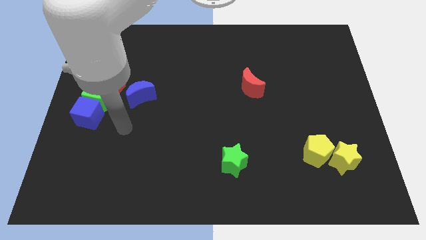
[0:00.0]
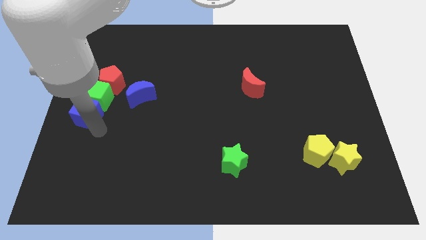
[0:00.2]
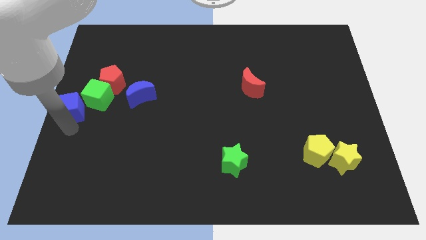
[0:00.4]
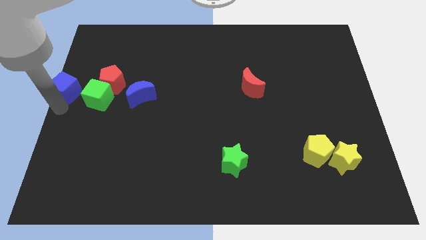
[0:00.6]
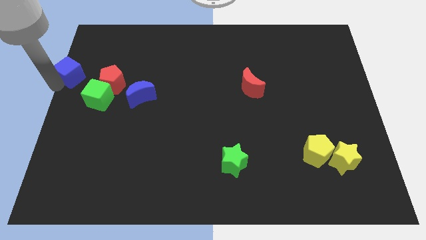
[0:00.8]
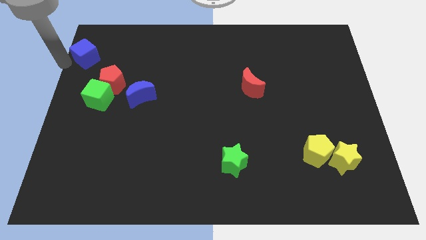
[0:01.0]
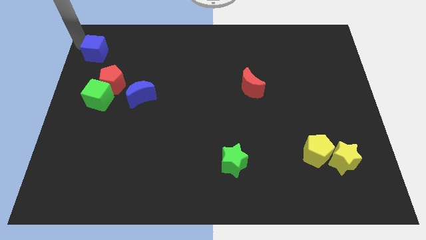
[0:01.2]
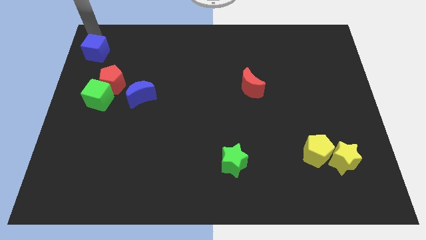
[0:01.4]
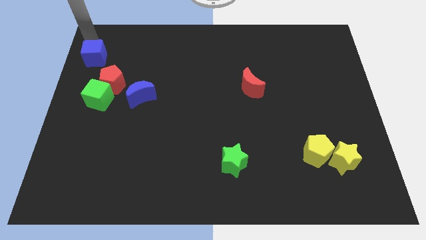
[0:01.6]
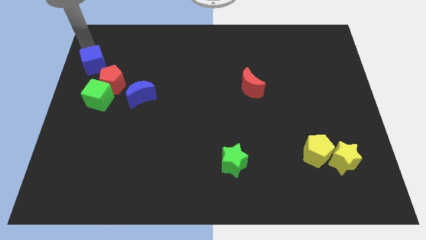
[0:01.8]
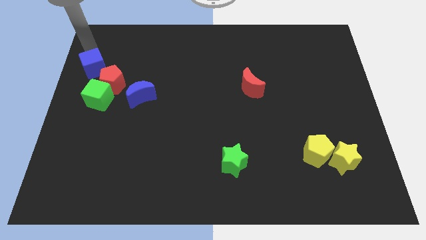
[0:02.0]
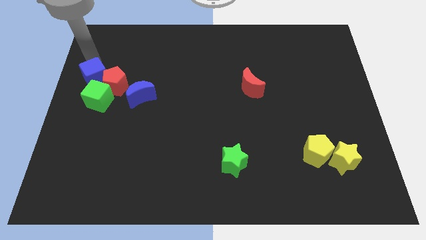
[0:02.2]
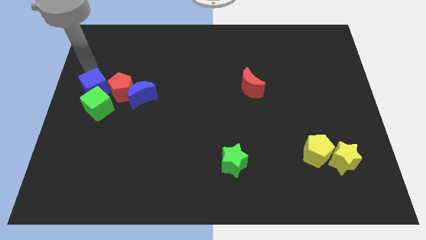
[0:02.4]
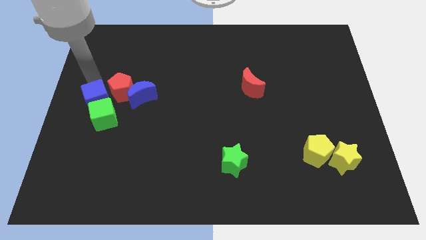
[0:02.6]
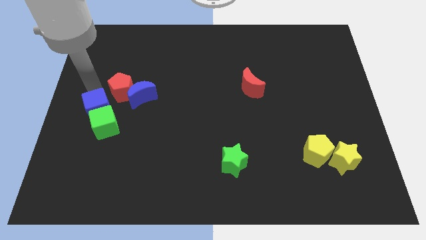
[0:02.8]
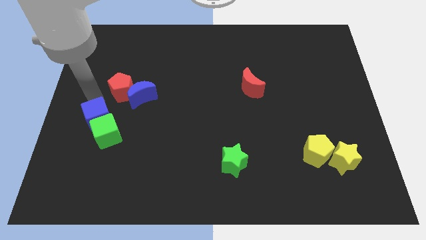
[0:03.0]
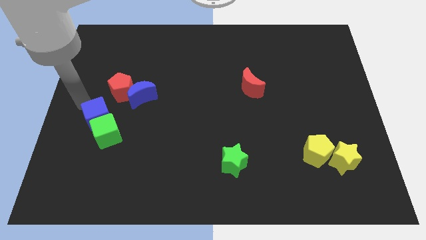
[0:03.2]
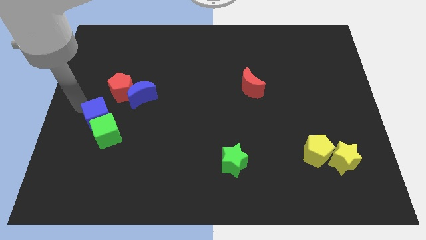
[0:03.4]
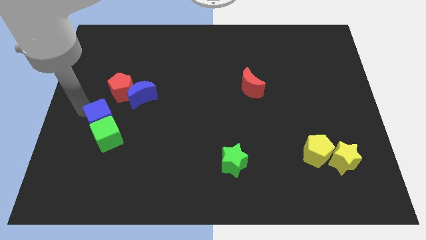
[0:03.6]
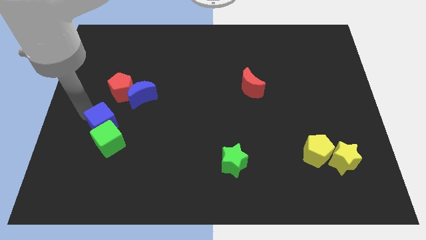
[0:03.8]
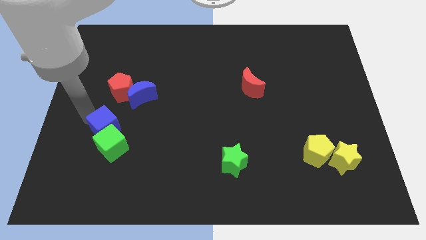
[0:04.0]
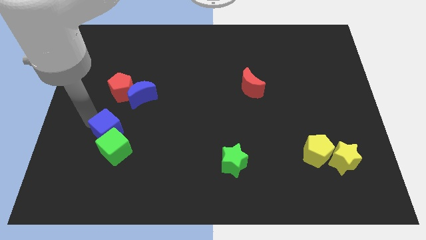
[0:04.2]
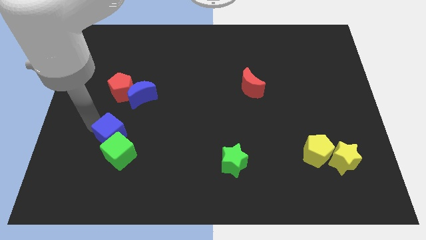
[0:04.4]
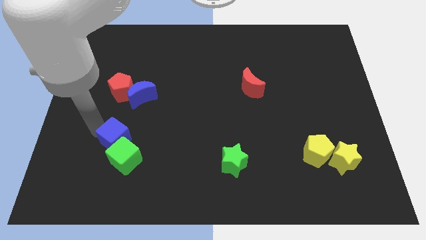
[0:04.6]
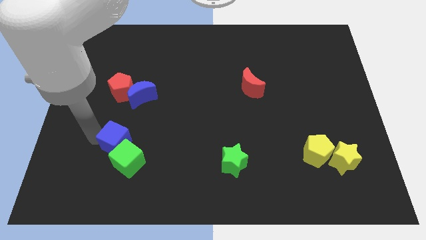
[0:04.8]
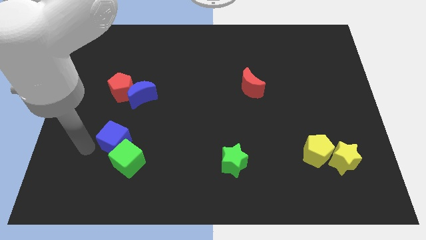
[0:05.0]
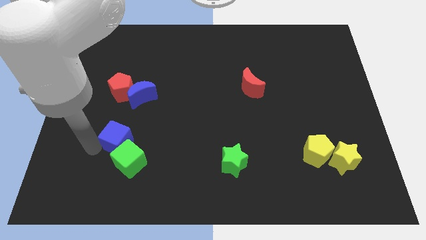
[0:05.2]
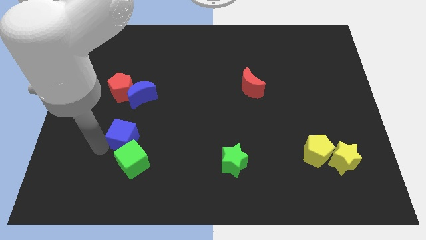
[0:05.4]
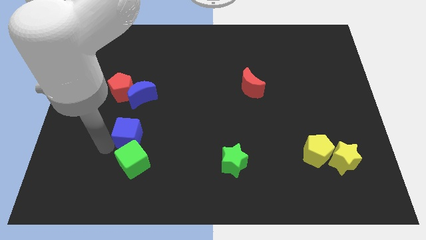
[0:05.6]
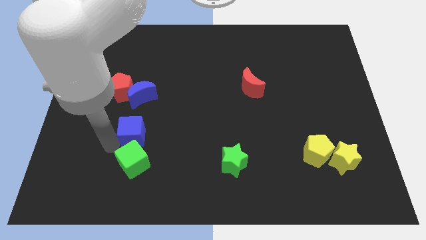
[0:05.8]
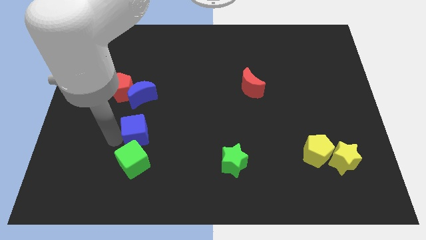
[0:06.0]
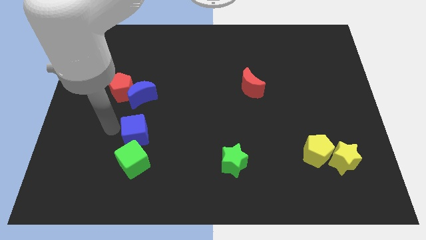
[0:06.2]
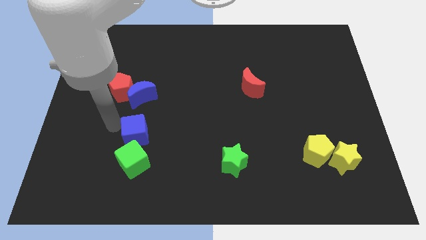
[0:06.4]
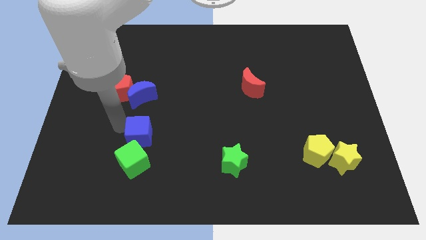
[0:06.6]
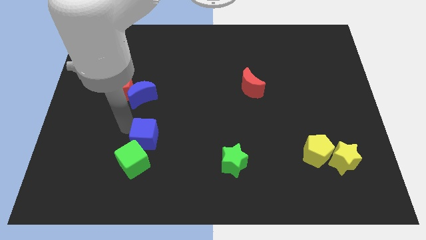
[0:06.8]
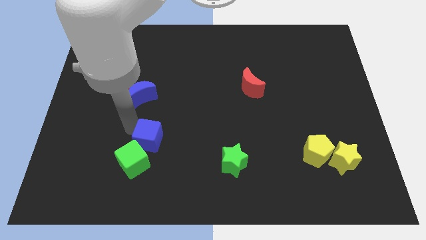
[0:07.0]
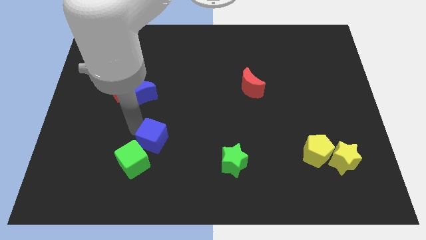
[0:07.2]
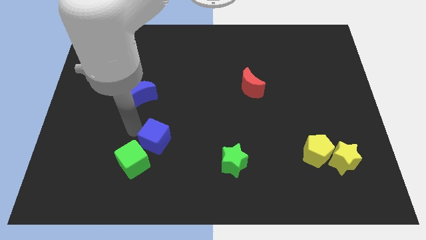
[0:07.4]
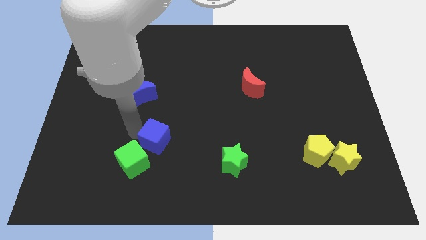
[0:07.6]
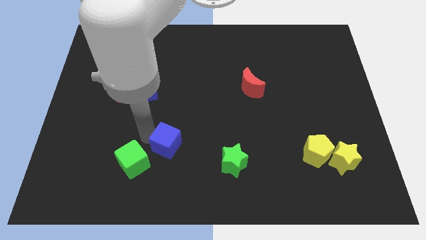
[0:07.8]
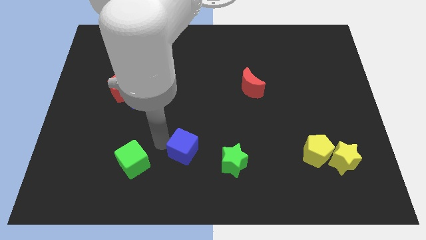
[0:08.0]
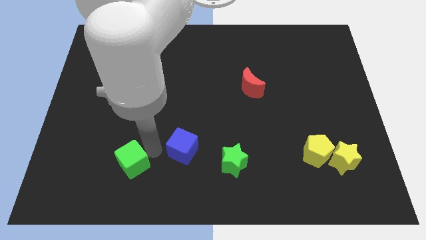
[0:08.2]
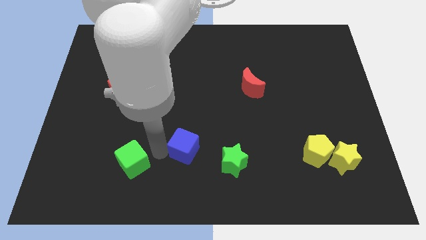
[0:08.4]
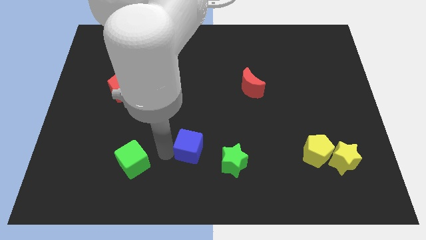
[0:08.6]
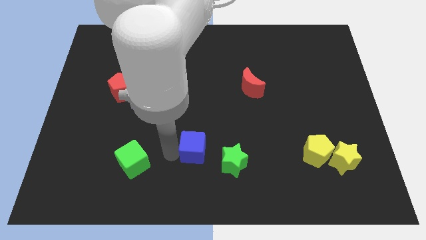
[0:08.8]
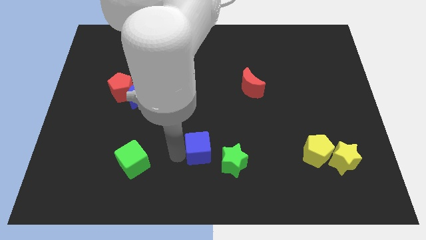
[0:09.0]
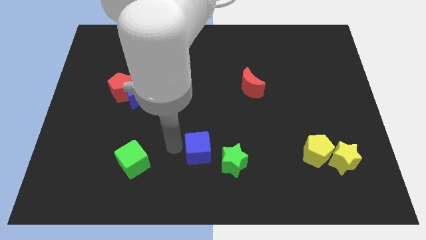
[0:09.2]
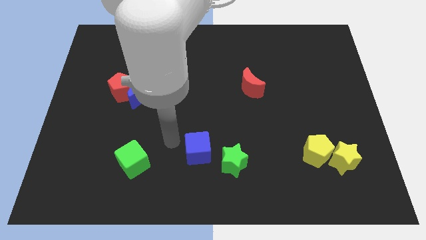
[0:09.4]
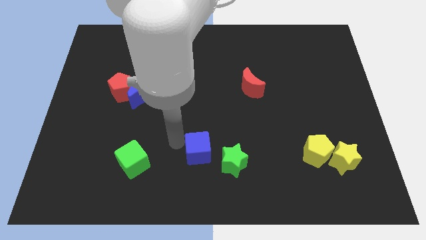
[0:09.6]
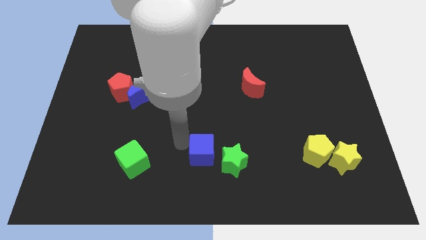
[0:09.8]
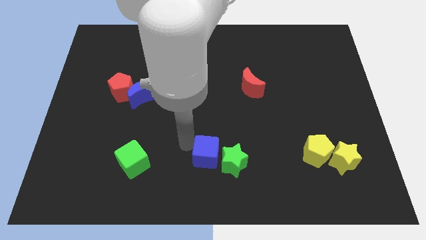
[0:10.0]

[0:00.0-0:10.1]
push the blue cube close to the green star

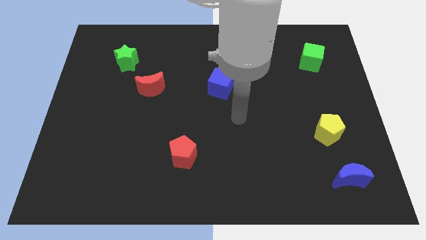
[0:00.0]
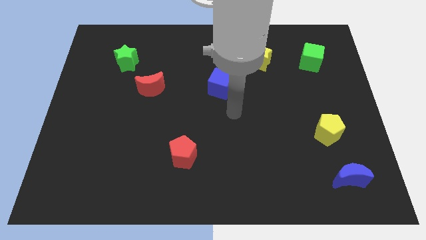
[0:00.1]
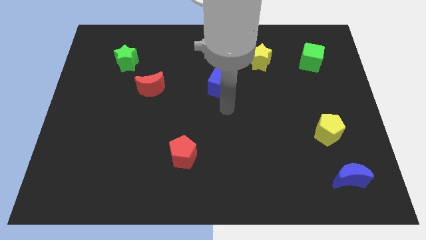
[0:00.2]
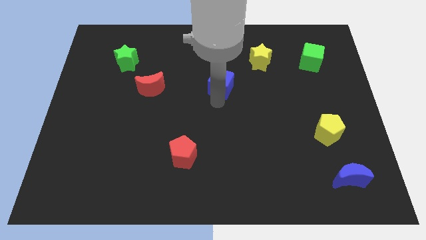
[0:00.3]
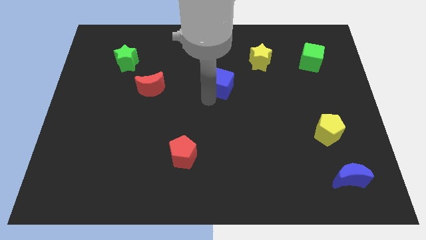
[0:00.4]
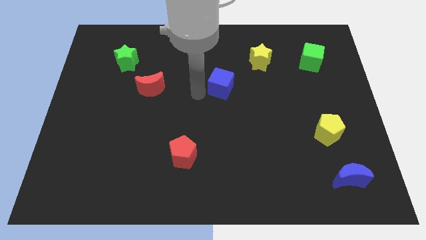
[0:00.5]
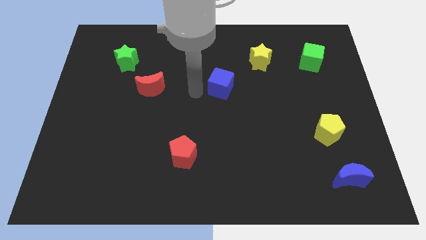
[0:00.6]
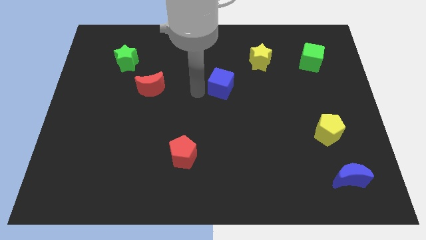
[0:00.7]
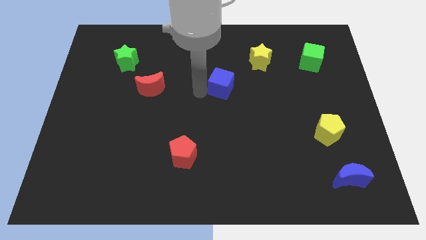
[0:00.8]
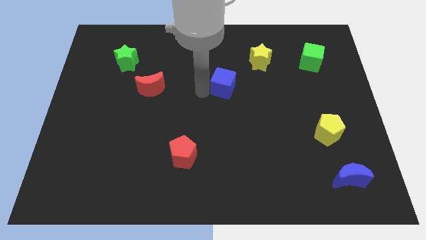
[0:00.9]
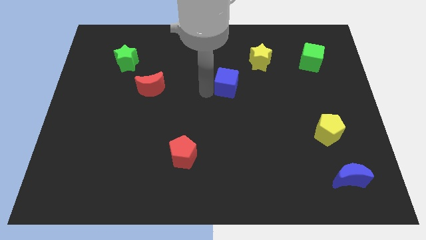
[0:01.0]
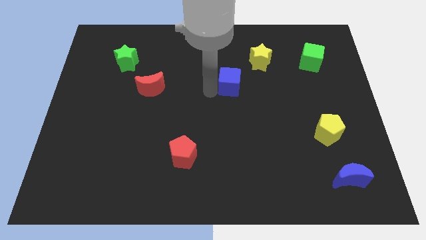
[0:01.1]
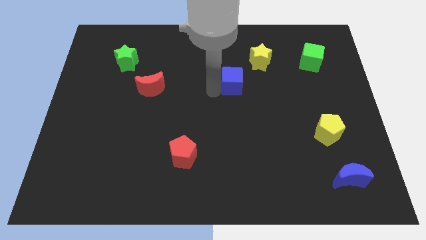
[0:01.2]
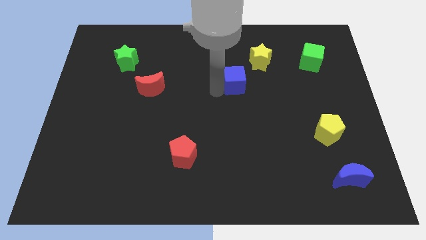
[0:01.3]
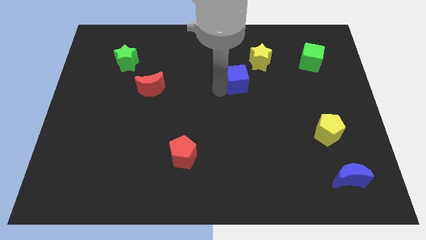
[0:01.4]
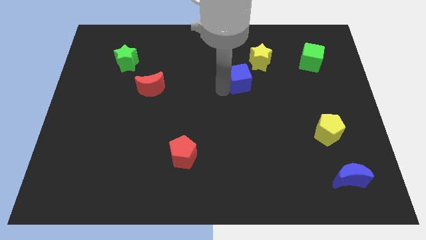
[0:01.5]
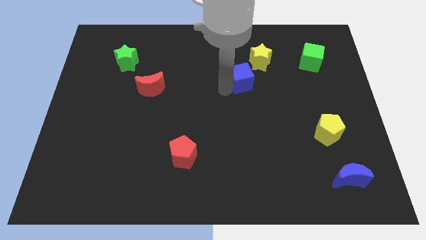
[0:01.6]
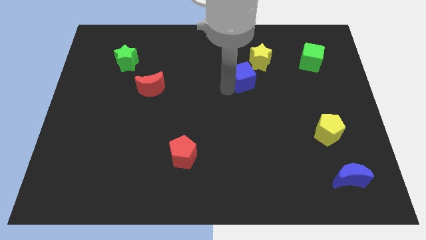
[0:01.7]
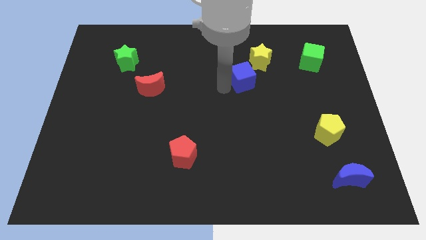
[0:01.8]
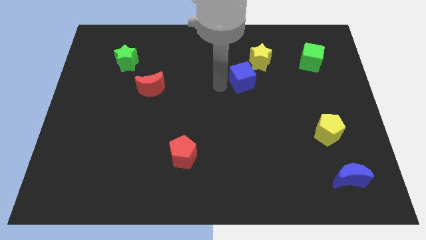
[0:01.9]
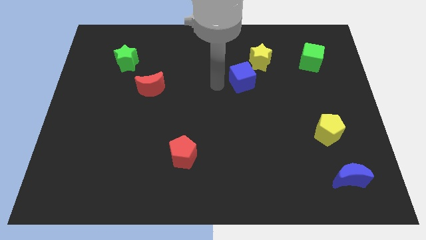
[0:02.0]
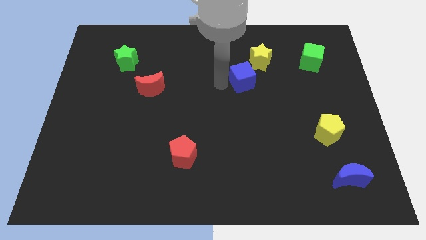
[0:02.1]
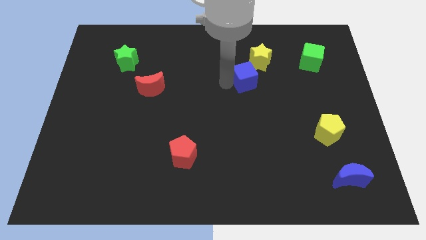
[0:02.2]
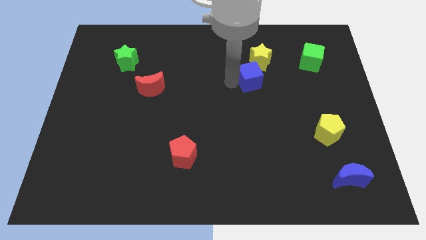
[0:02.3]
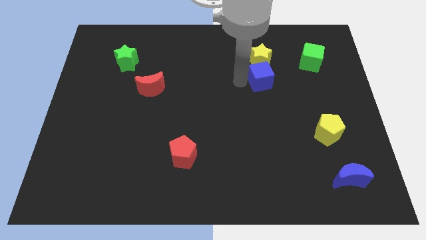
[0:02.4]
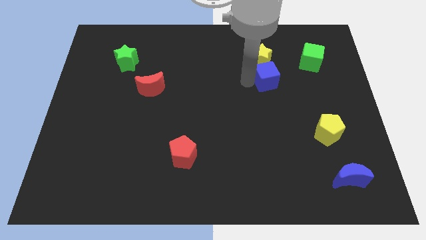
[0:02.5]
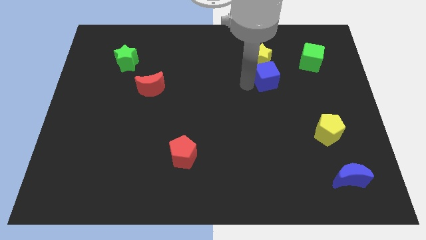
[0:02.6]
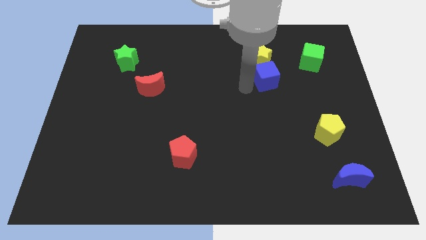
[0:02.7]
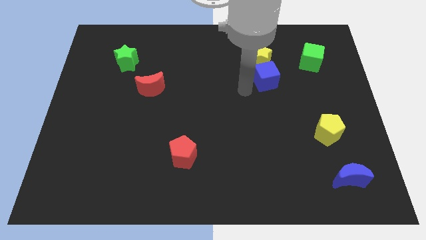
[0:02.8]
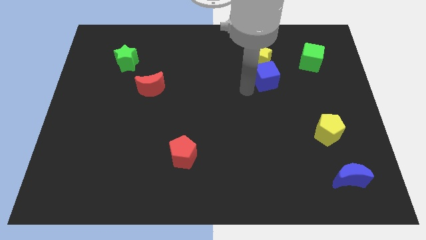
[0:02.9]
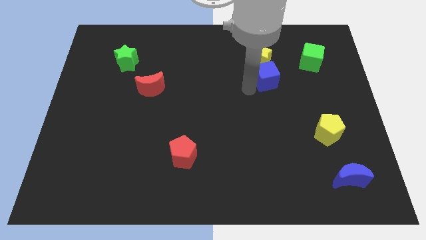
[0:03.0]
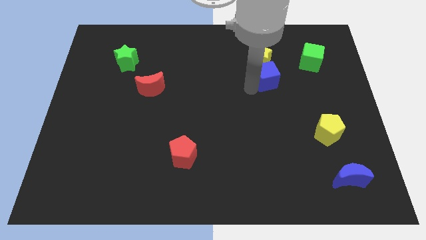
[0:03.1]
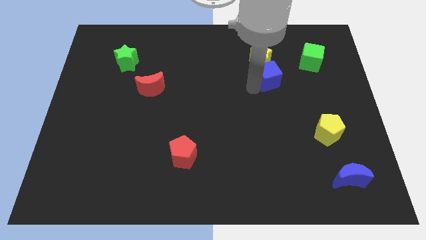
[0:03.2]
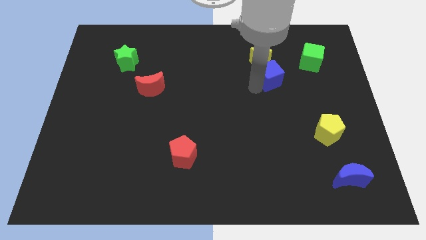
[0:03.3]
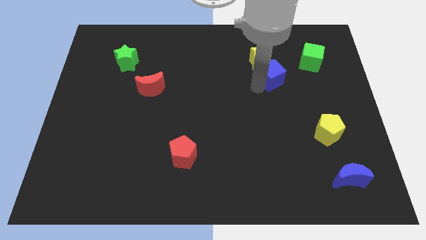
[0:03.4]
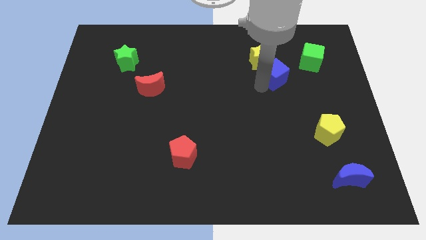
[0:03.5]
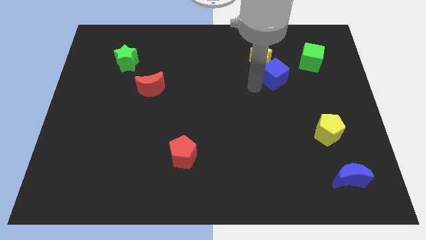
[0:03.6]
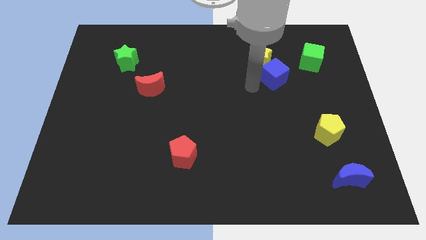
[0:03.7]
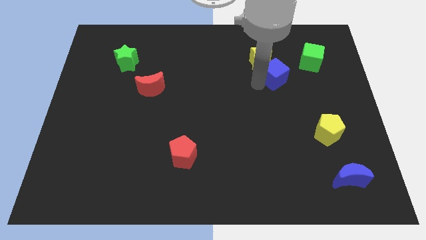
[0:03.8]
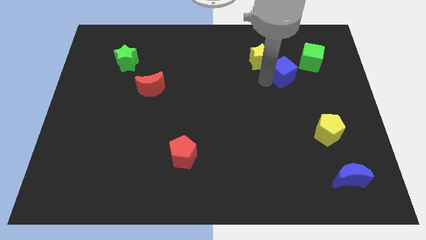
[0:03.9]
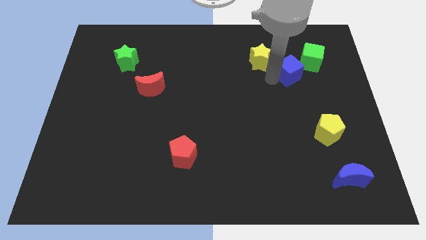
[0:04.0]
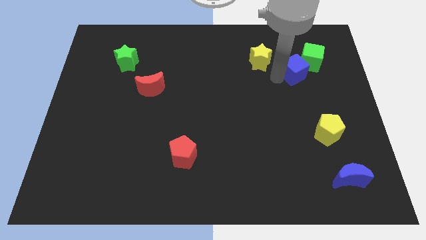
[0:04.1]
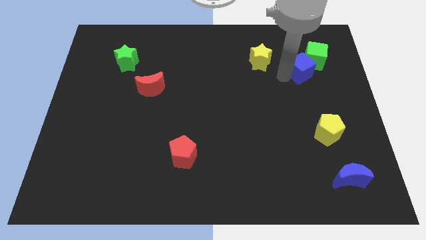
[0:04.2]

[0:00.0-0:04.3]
slide the blue cube towards the green cube
